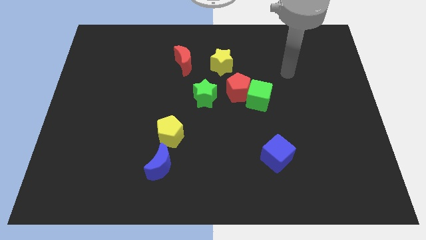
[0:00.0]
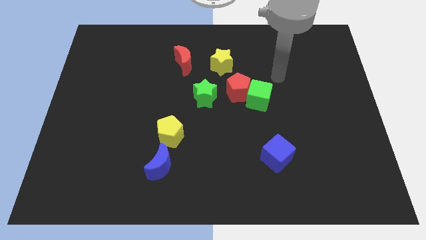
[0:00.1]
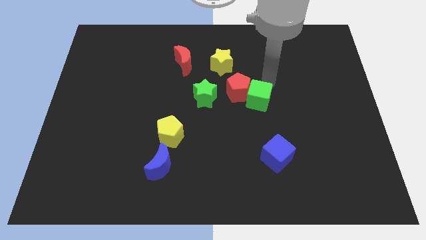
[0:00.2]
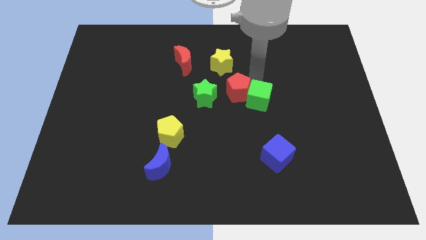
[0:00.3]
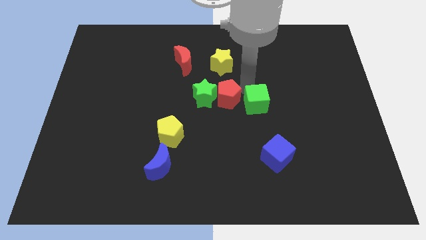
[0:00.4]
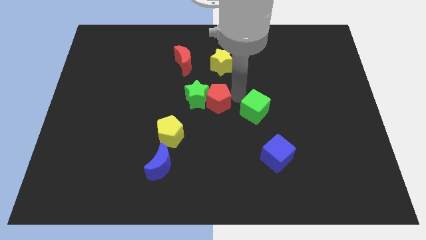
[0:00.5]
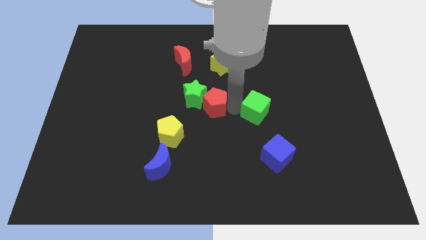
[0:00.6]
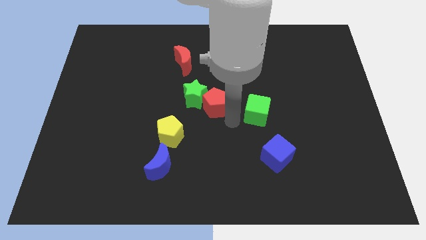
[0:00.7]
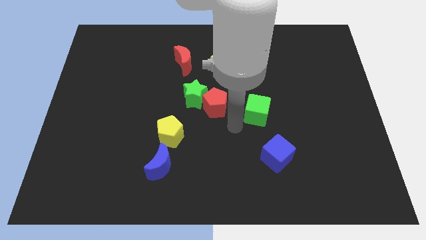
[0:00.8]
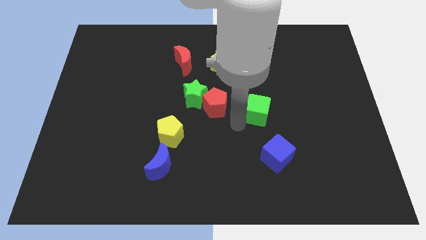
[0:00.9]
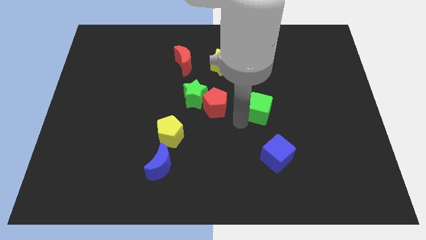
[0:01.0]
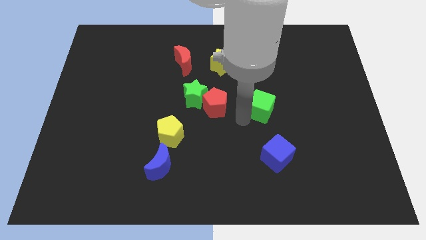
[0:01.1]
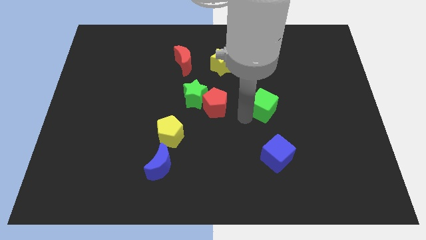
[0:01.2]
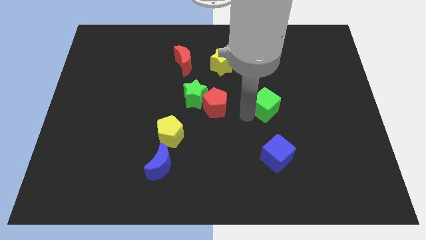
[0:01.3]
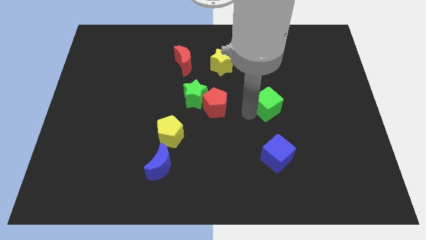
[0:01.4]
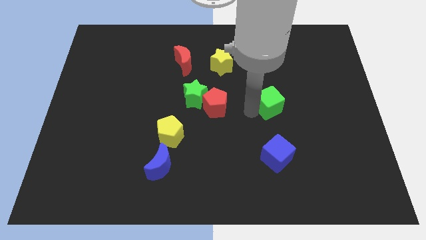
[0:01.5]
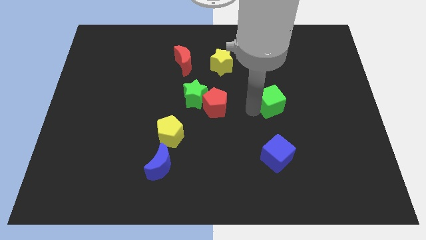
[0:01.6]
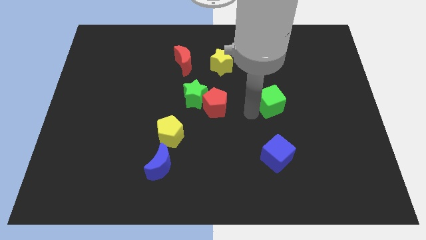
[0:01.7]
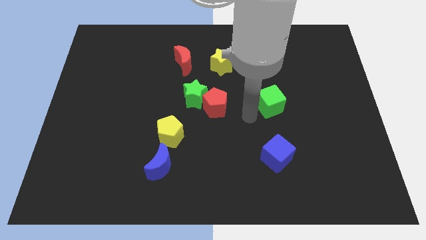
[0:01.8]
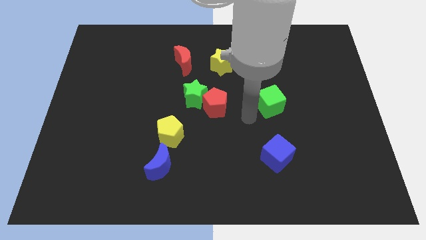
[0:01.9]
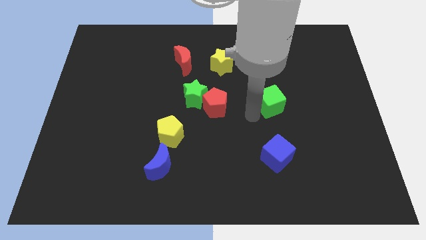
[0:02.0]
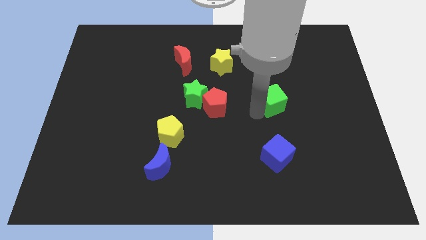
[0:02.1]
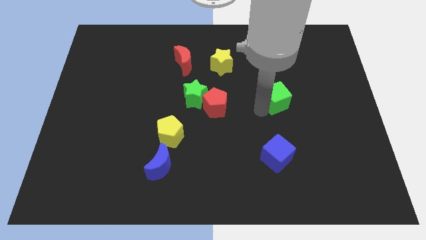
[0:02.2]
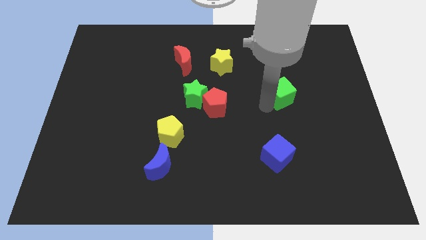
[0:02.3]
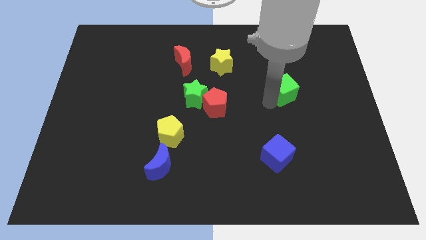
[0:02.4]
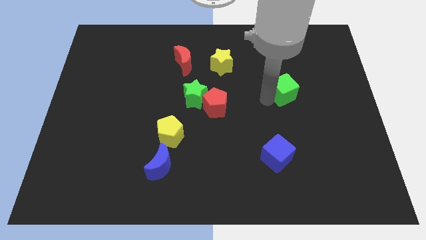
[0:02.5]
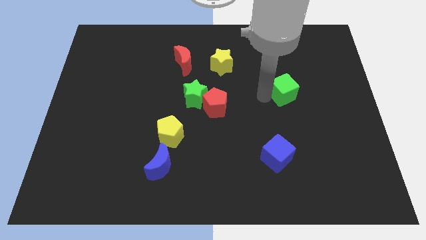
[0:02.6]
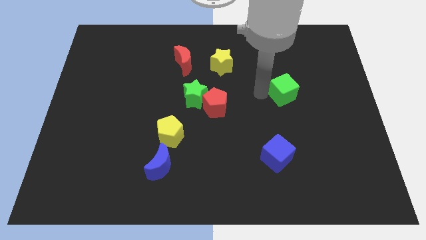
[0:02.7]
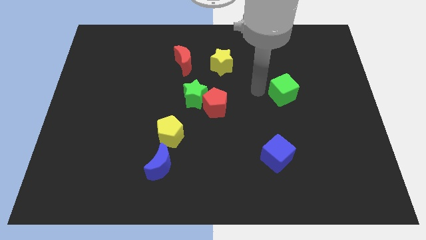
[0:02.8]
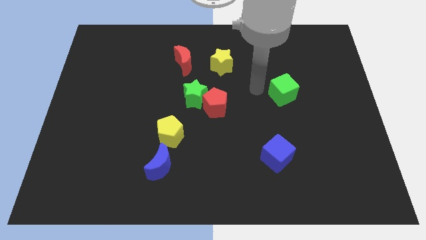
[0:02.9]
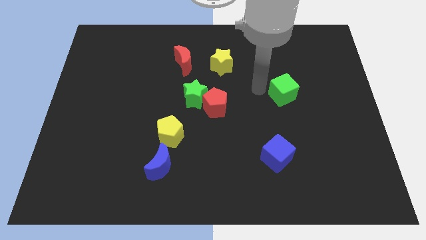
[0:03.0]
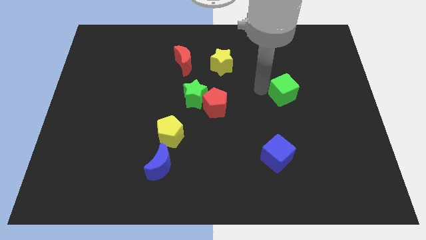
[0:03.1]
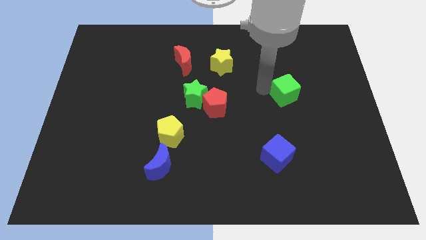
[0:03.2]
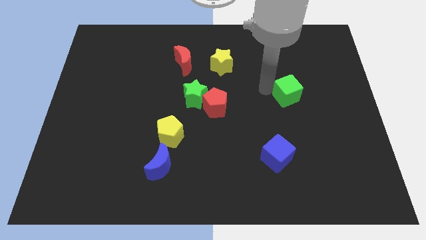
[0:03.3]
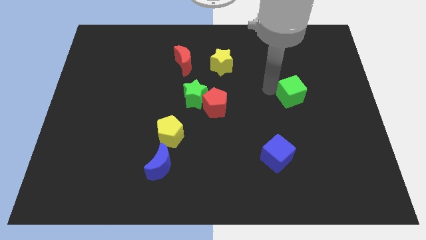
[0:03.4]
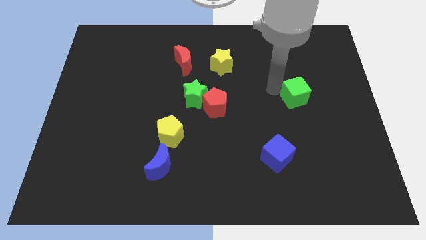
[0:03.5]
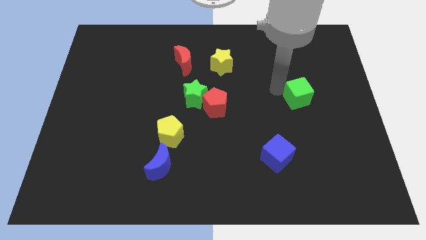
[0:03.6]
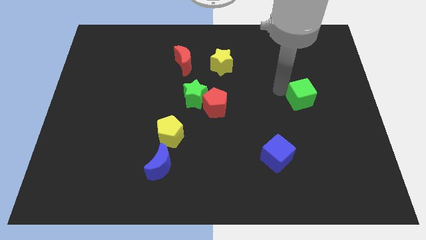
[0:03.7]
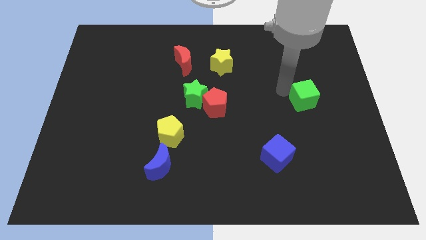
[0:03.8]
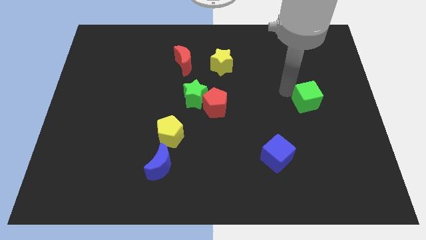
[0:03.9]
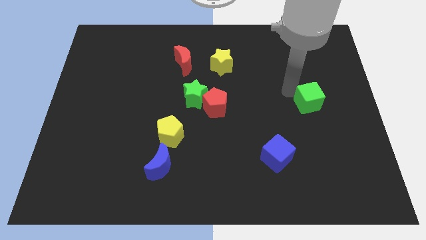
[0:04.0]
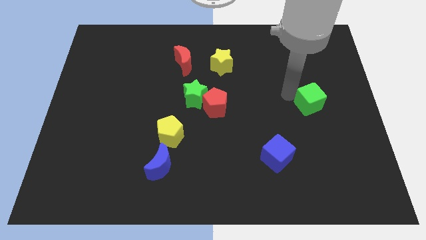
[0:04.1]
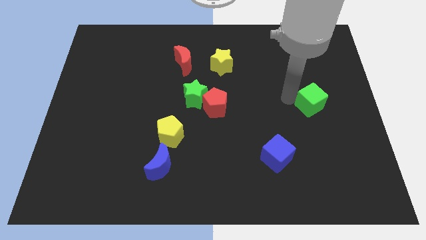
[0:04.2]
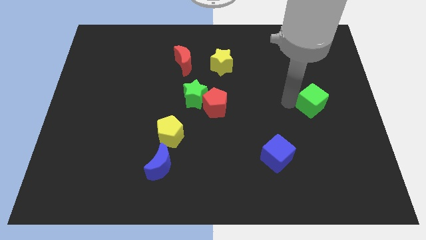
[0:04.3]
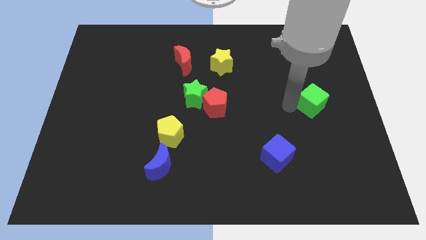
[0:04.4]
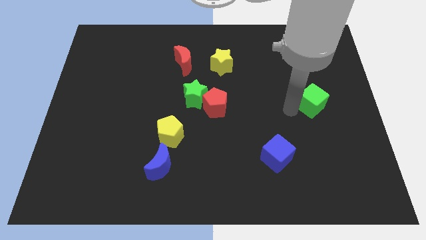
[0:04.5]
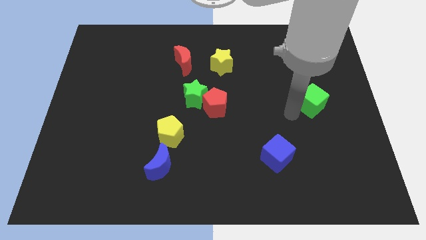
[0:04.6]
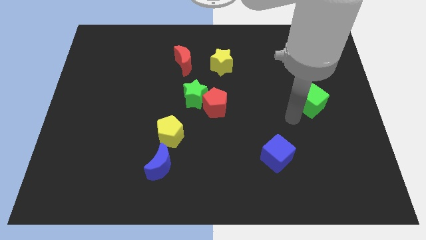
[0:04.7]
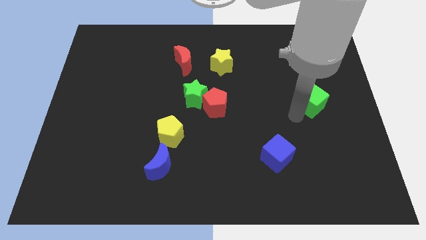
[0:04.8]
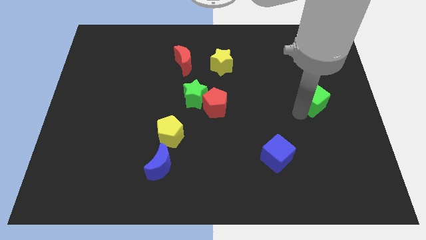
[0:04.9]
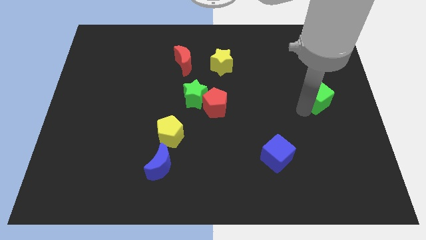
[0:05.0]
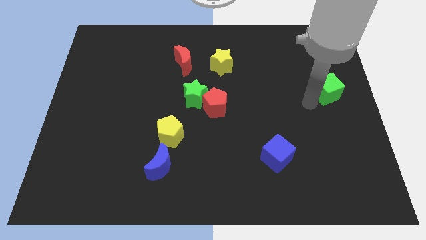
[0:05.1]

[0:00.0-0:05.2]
push the green cube to the center right

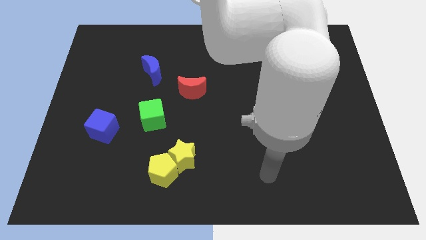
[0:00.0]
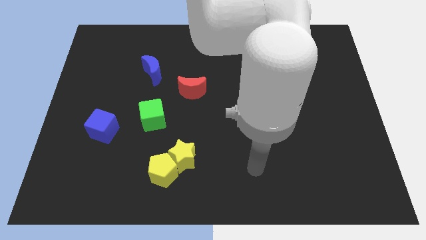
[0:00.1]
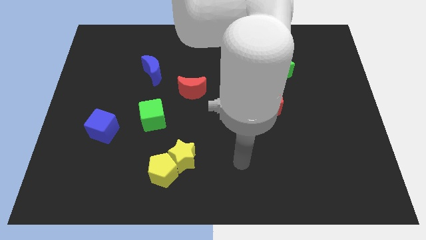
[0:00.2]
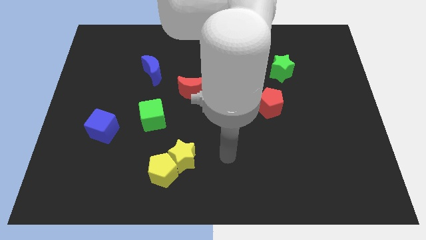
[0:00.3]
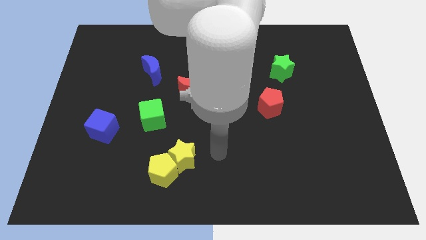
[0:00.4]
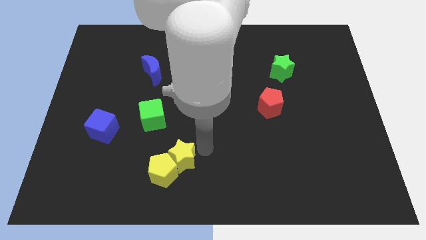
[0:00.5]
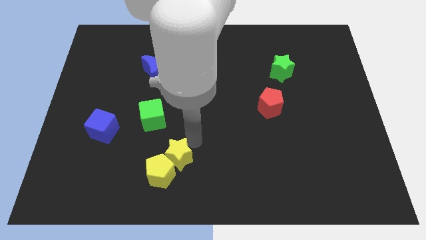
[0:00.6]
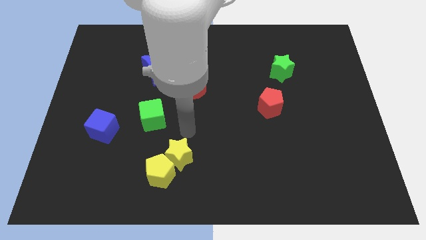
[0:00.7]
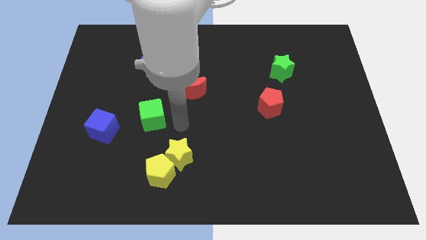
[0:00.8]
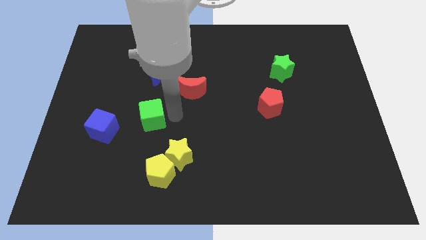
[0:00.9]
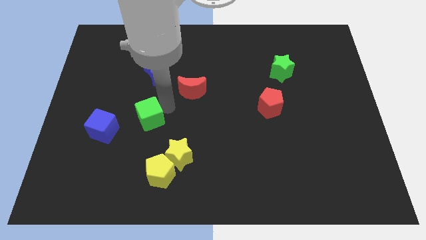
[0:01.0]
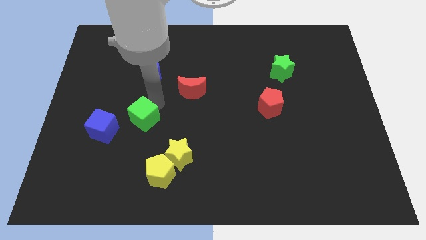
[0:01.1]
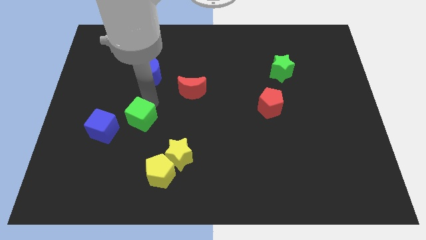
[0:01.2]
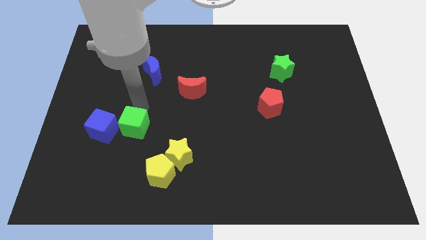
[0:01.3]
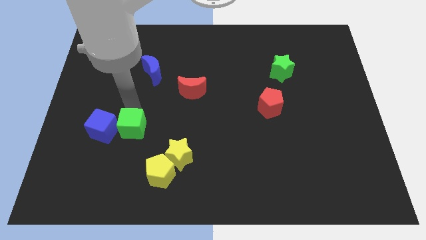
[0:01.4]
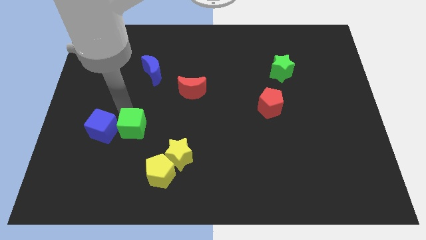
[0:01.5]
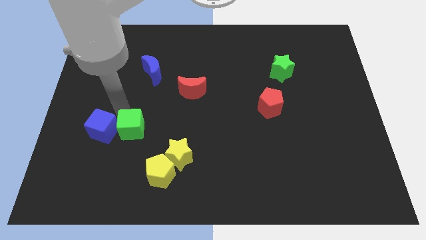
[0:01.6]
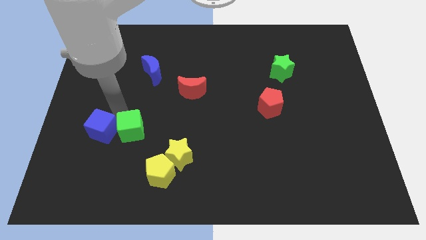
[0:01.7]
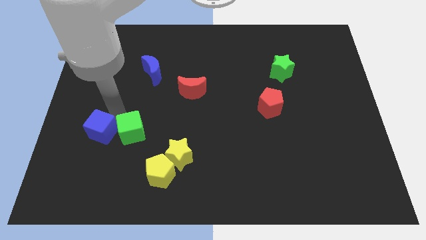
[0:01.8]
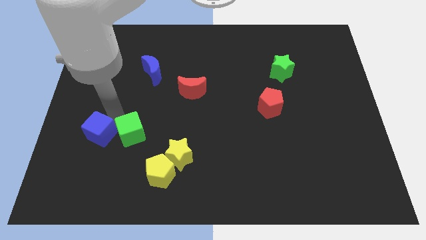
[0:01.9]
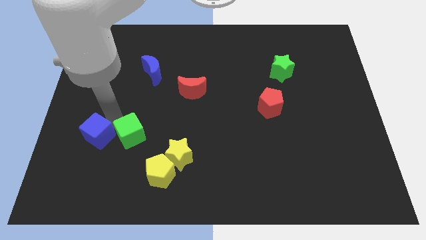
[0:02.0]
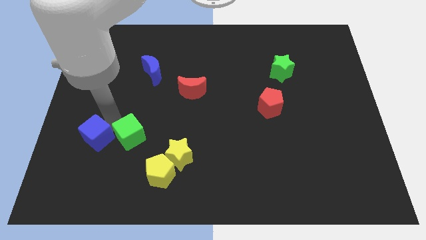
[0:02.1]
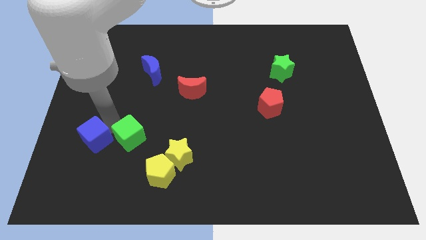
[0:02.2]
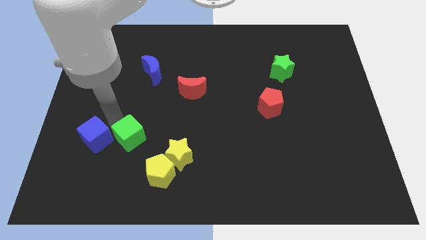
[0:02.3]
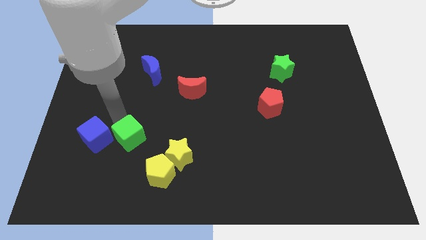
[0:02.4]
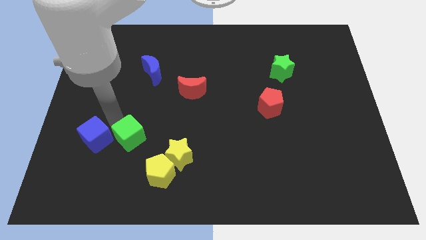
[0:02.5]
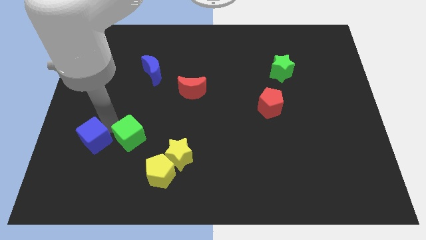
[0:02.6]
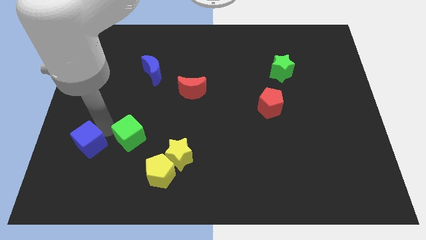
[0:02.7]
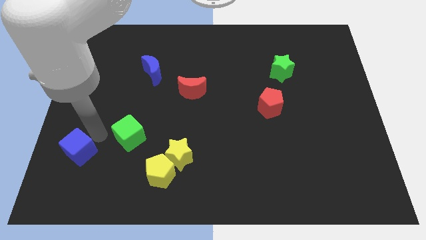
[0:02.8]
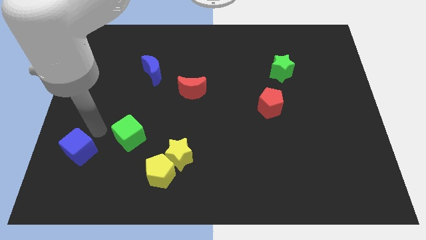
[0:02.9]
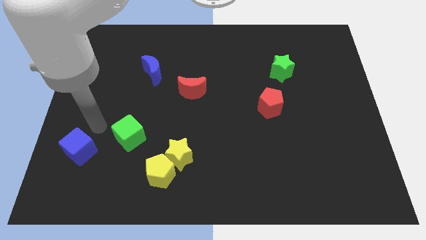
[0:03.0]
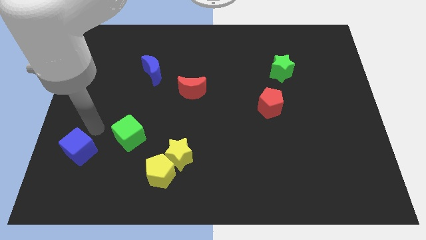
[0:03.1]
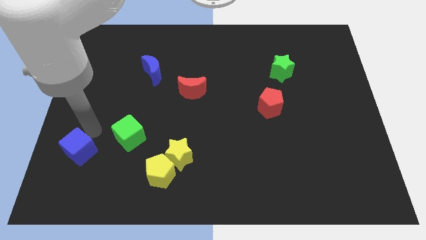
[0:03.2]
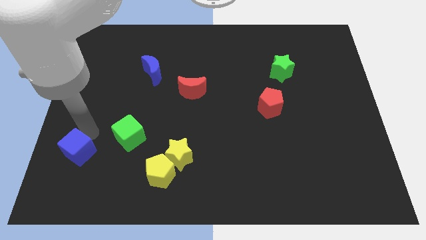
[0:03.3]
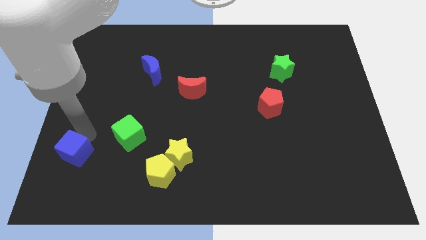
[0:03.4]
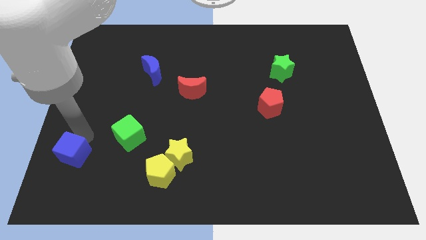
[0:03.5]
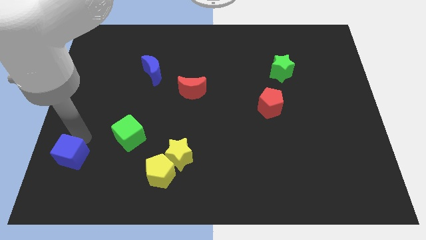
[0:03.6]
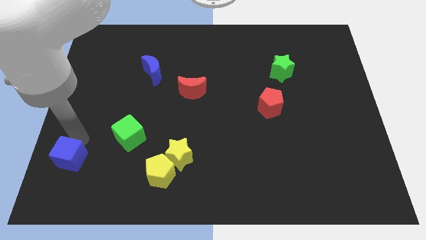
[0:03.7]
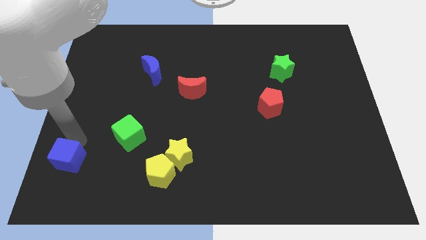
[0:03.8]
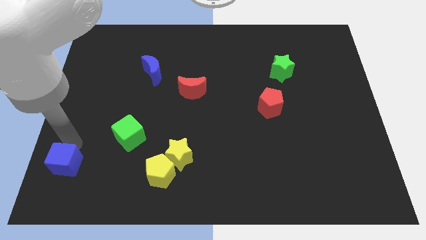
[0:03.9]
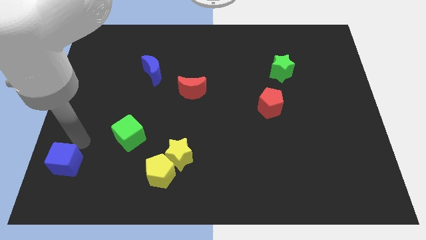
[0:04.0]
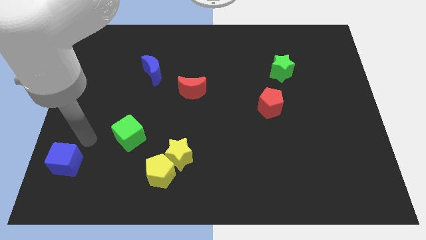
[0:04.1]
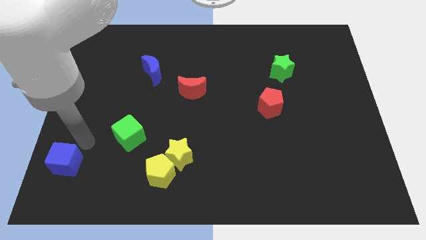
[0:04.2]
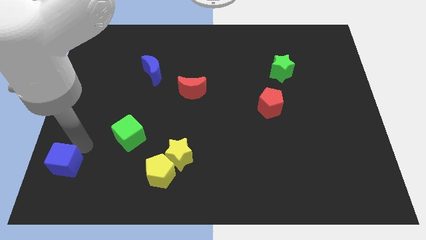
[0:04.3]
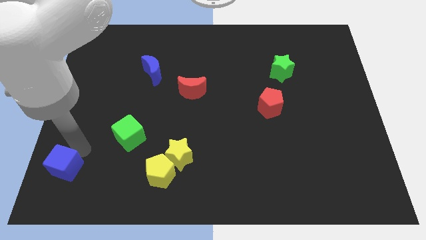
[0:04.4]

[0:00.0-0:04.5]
put the blue cube to the bottom left of the board
